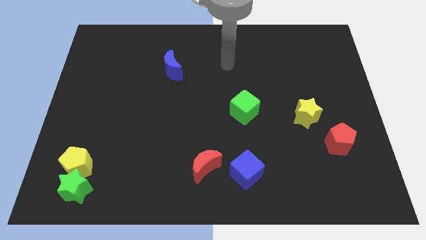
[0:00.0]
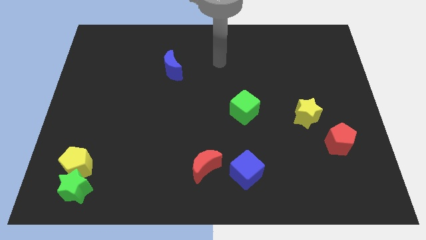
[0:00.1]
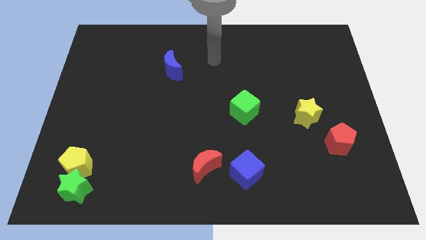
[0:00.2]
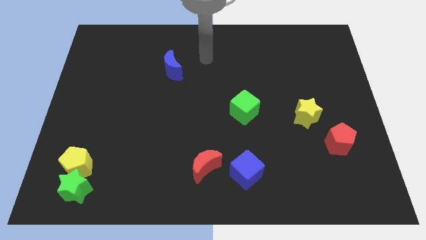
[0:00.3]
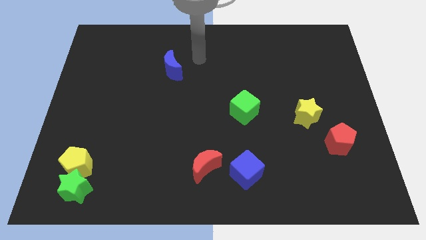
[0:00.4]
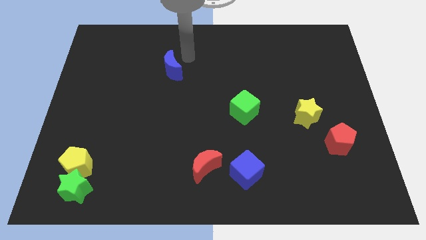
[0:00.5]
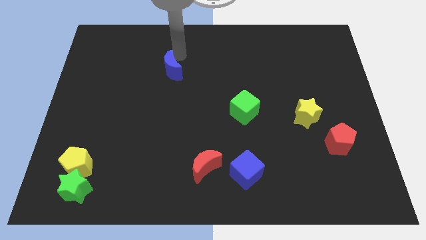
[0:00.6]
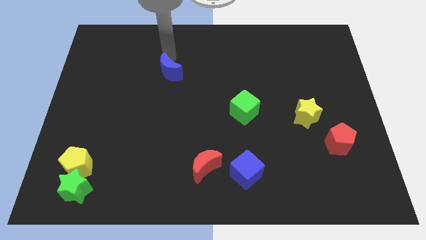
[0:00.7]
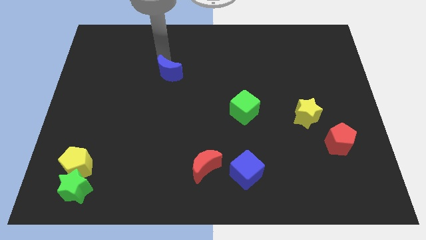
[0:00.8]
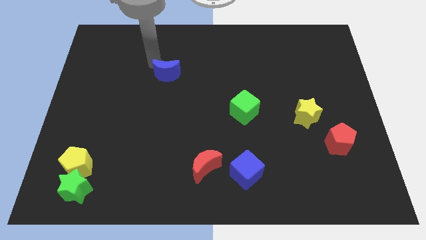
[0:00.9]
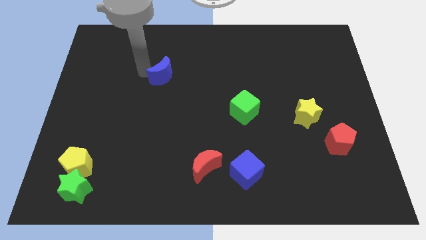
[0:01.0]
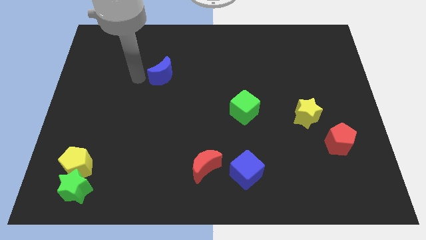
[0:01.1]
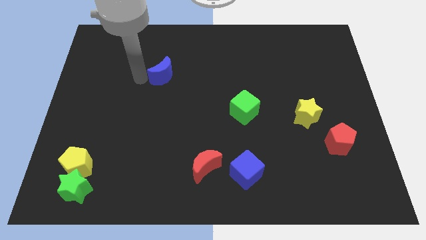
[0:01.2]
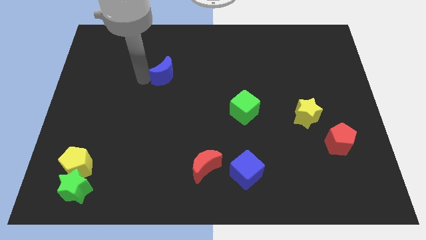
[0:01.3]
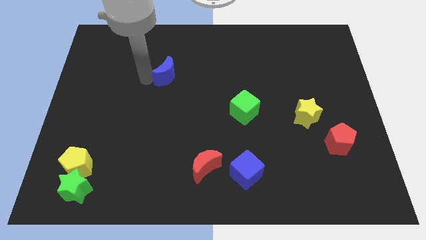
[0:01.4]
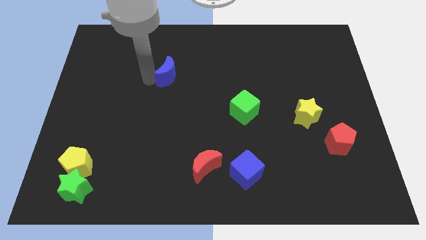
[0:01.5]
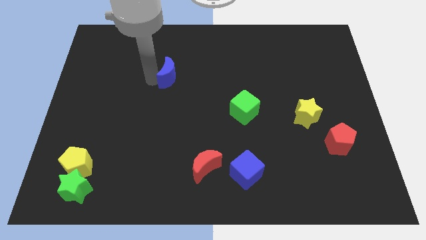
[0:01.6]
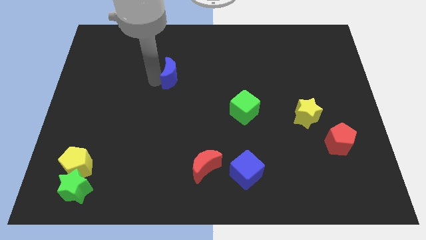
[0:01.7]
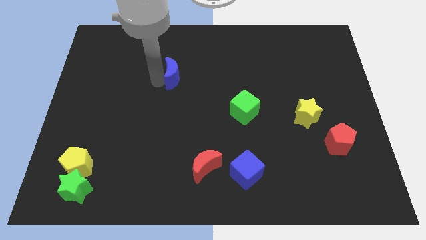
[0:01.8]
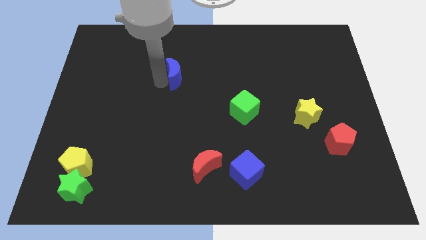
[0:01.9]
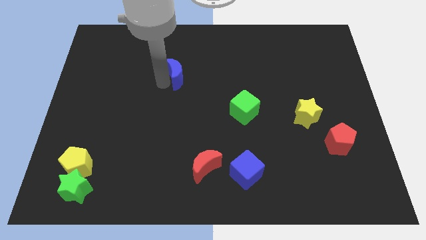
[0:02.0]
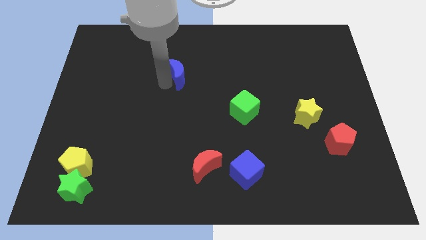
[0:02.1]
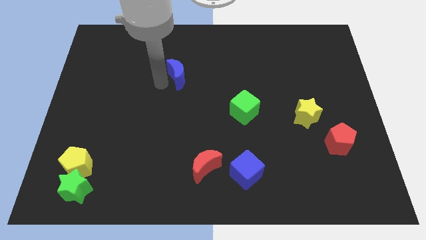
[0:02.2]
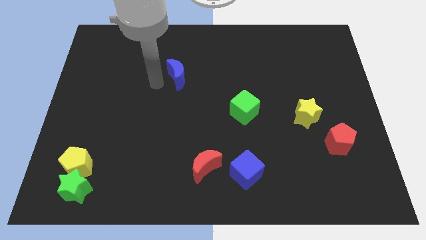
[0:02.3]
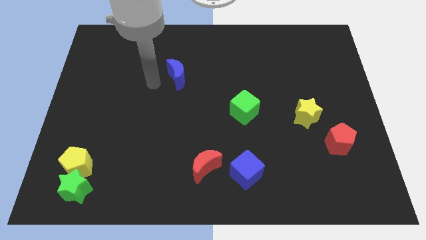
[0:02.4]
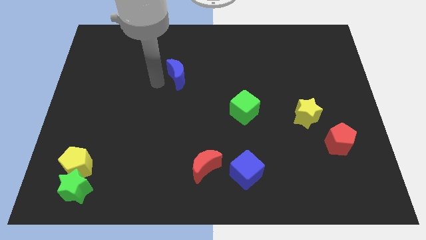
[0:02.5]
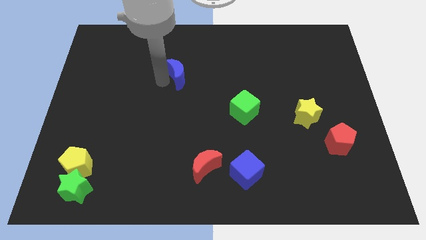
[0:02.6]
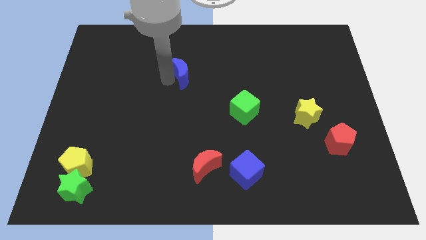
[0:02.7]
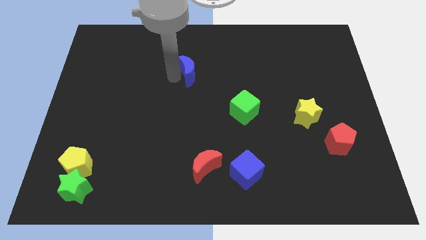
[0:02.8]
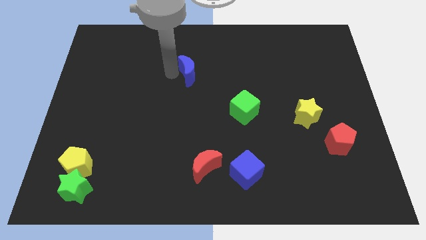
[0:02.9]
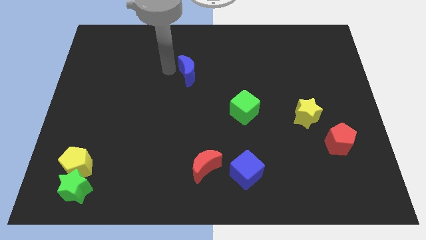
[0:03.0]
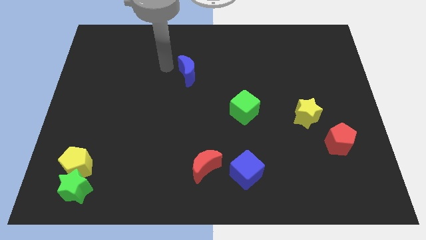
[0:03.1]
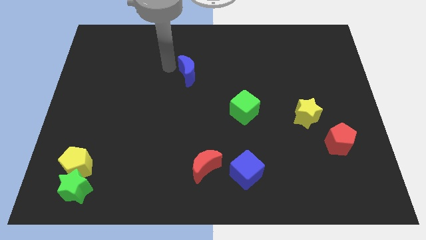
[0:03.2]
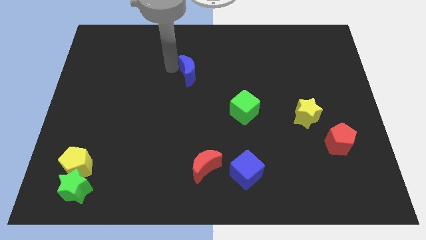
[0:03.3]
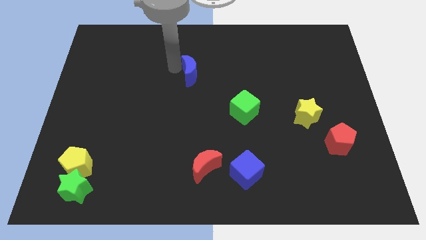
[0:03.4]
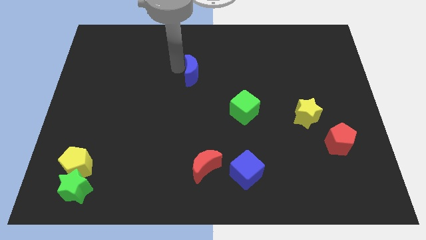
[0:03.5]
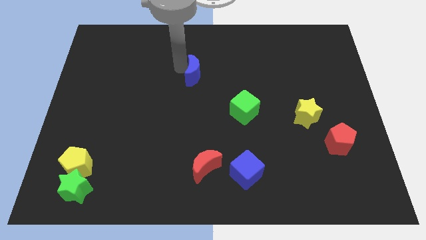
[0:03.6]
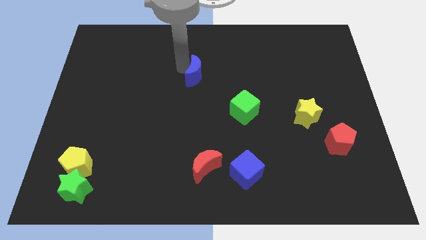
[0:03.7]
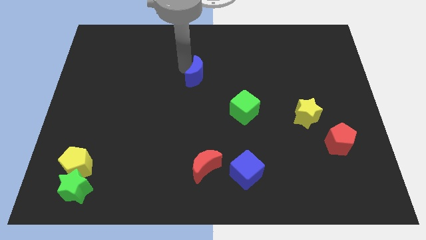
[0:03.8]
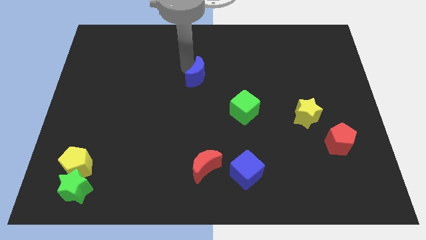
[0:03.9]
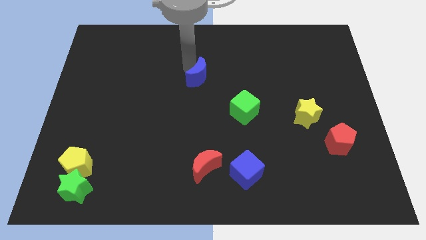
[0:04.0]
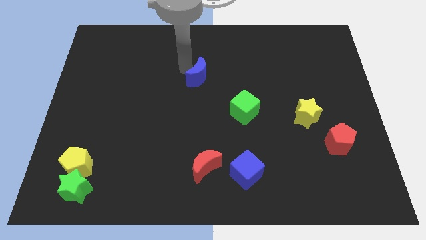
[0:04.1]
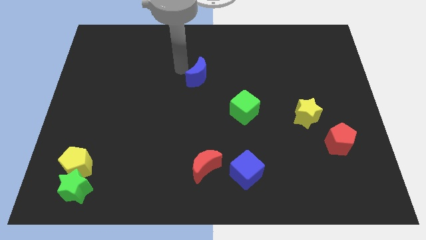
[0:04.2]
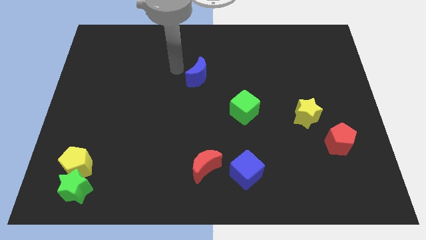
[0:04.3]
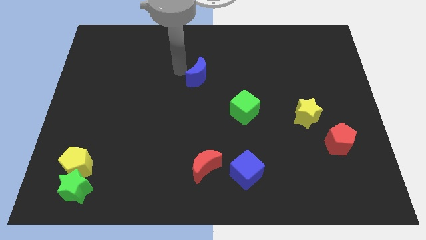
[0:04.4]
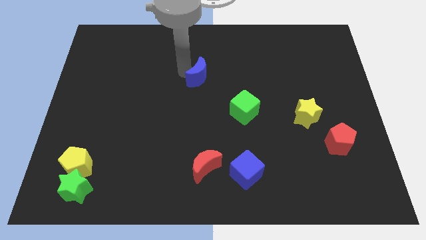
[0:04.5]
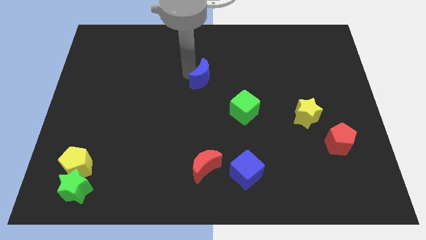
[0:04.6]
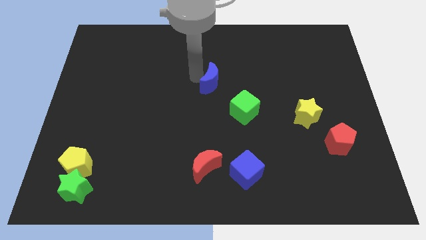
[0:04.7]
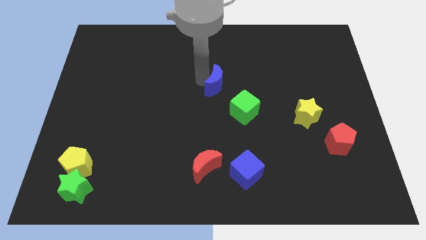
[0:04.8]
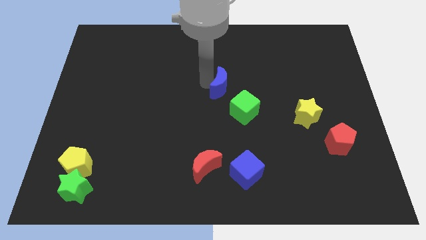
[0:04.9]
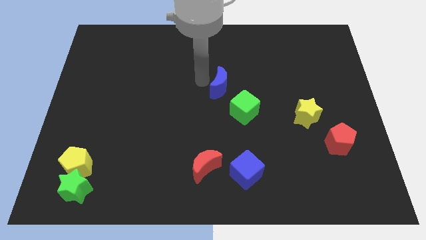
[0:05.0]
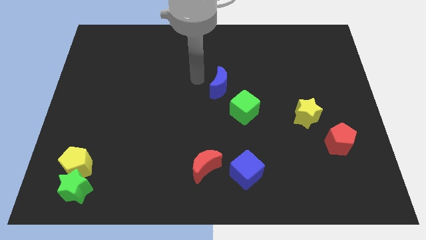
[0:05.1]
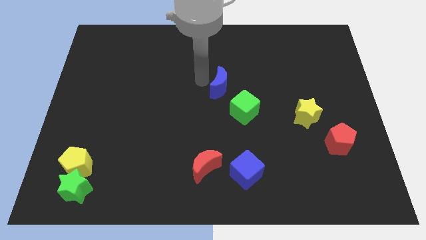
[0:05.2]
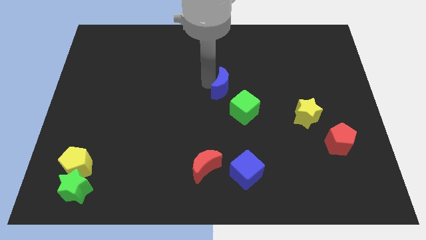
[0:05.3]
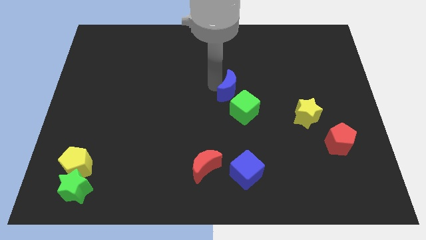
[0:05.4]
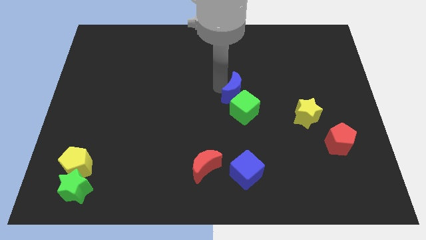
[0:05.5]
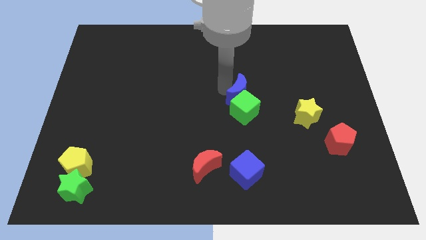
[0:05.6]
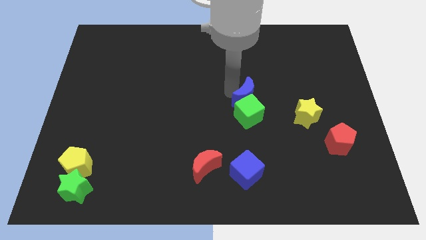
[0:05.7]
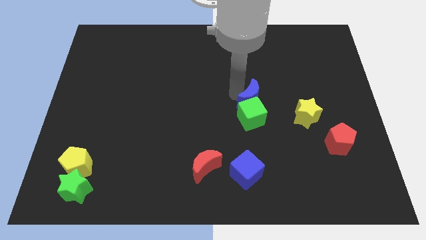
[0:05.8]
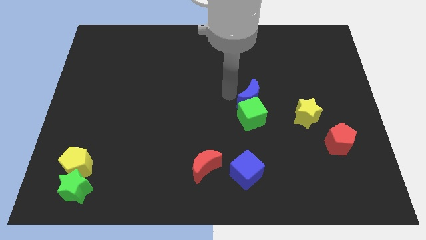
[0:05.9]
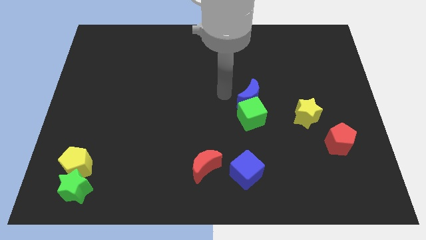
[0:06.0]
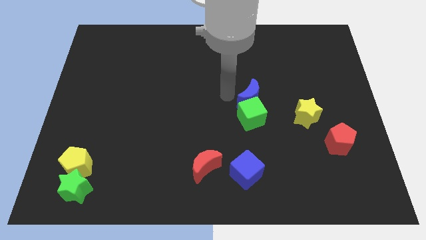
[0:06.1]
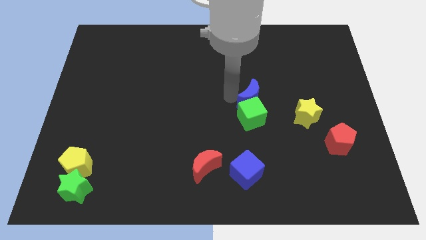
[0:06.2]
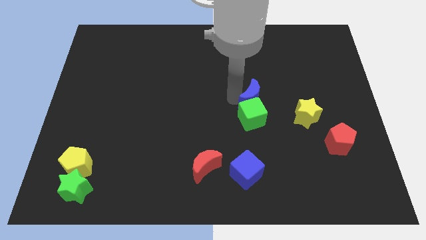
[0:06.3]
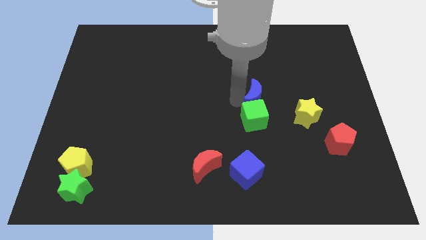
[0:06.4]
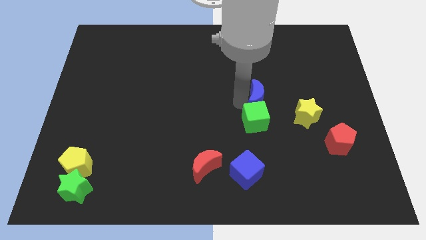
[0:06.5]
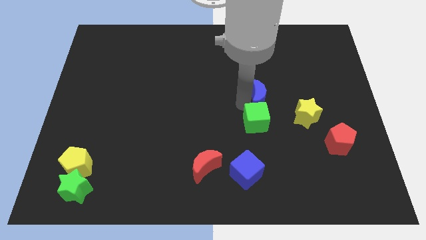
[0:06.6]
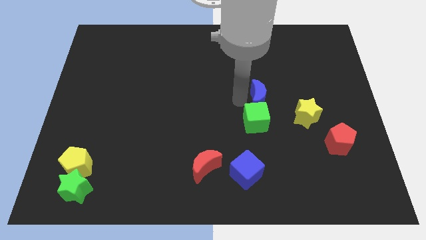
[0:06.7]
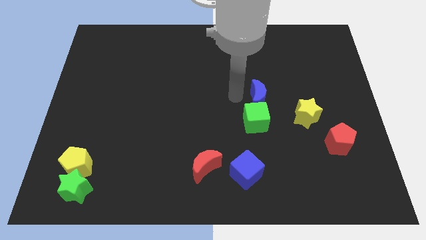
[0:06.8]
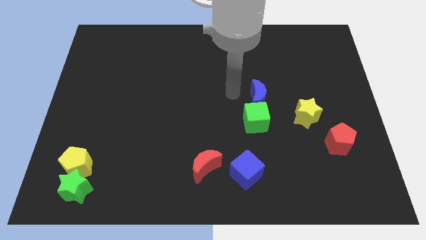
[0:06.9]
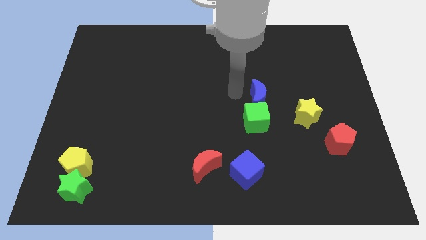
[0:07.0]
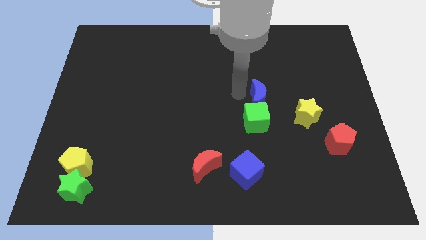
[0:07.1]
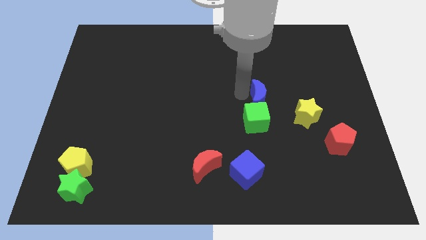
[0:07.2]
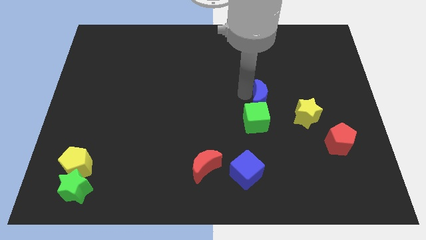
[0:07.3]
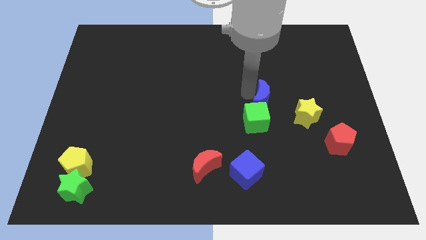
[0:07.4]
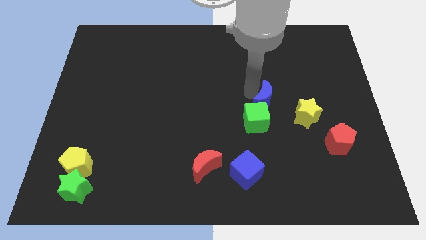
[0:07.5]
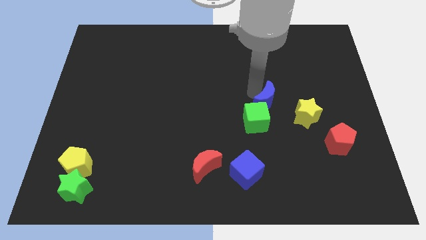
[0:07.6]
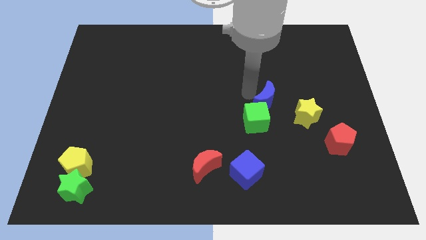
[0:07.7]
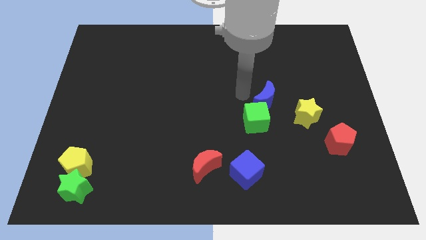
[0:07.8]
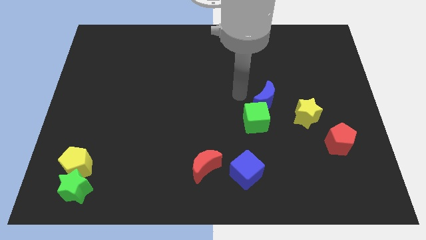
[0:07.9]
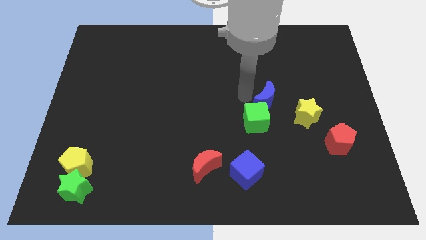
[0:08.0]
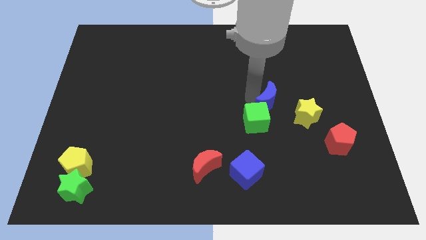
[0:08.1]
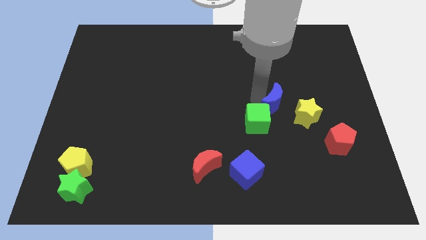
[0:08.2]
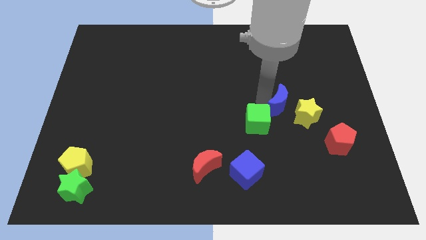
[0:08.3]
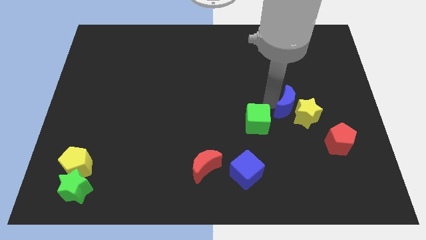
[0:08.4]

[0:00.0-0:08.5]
move the blue moon next to the yellow star
